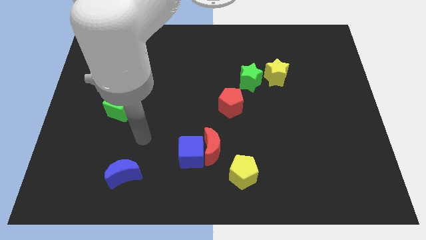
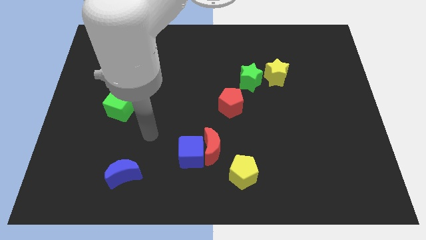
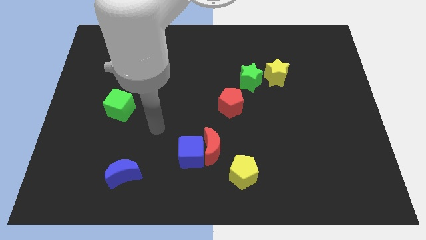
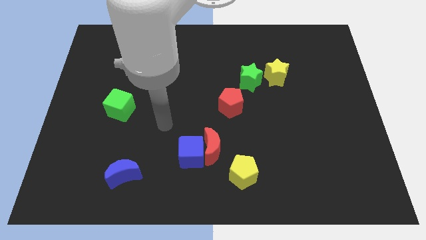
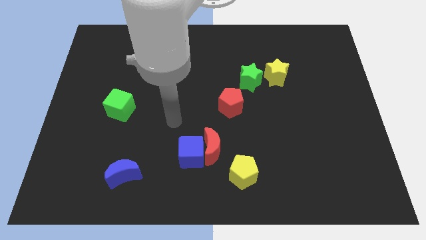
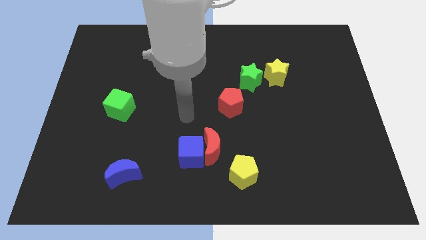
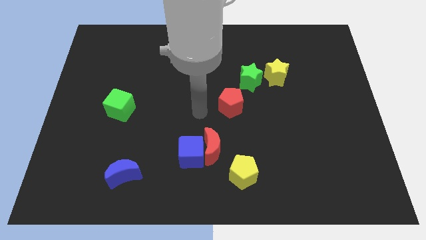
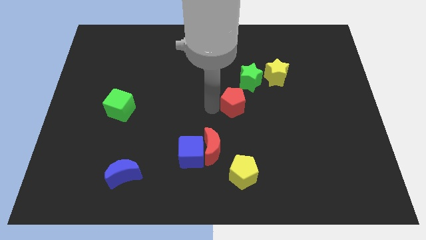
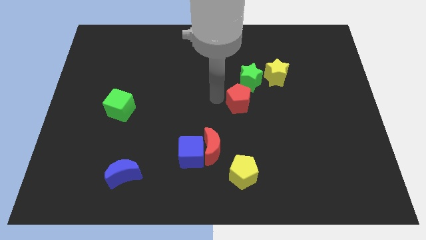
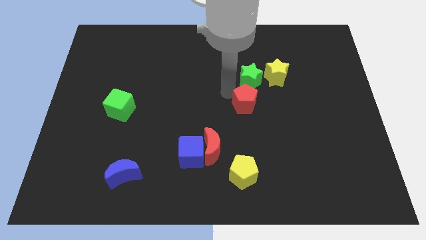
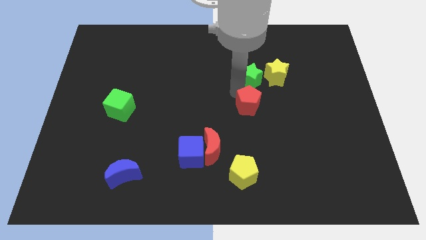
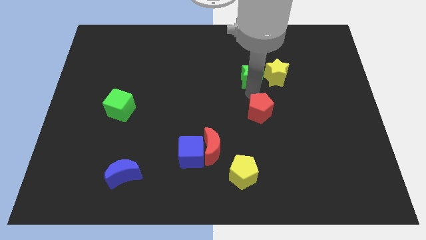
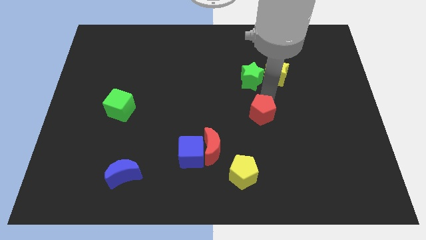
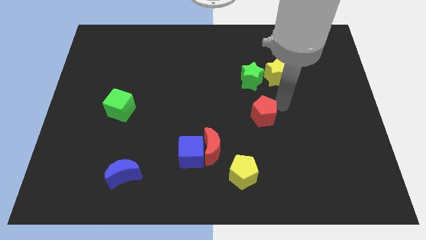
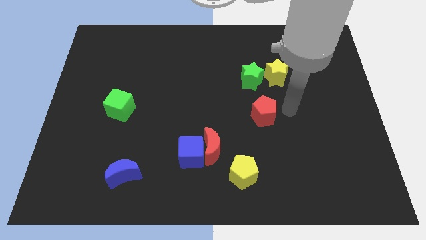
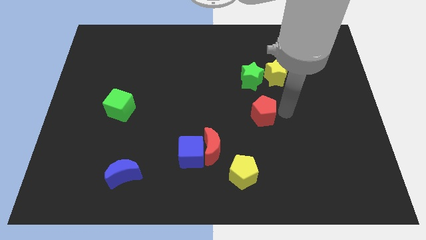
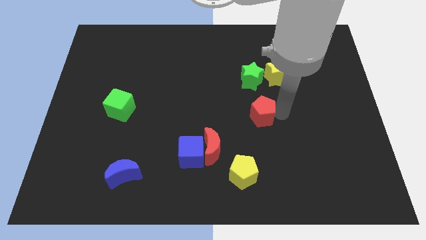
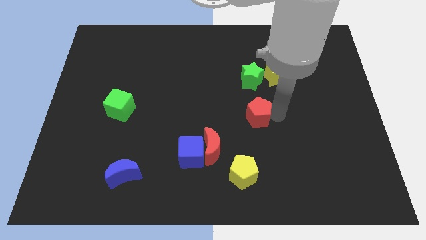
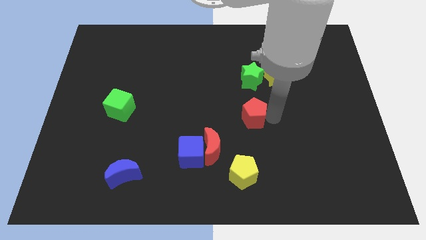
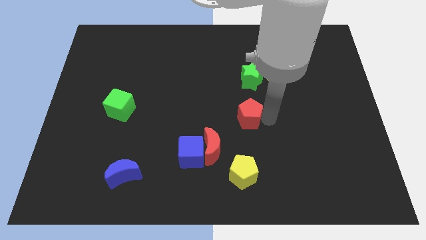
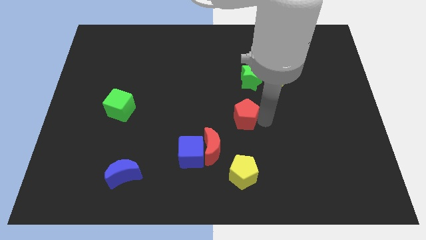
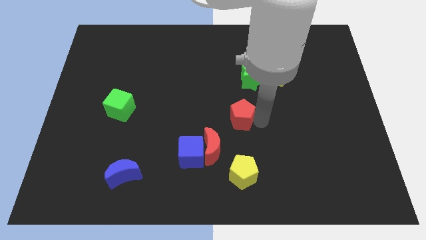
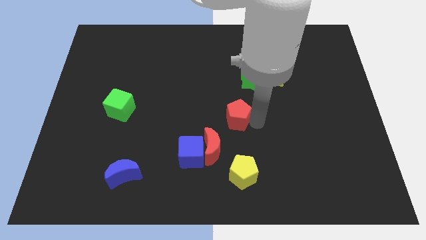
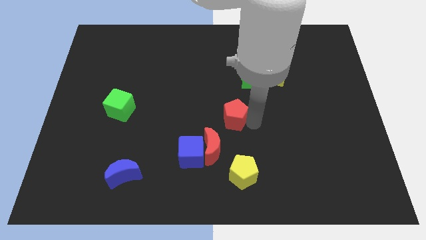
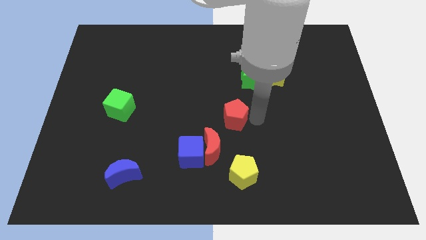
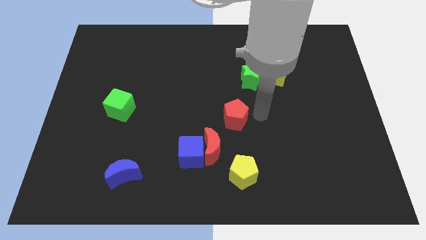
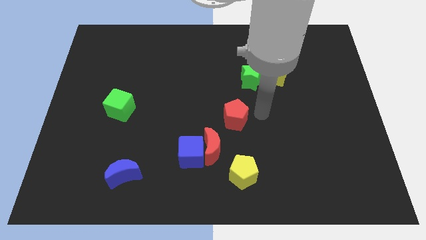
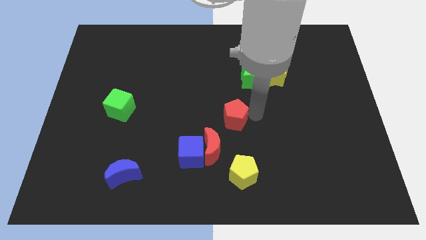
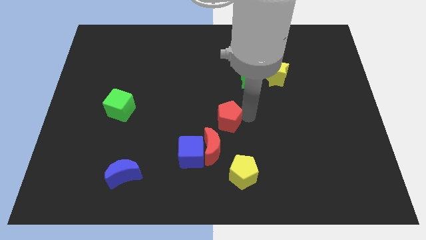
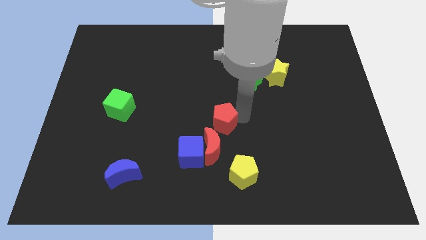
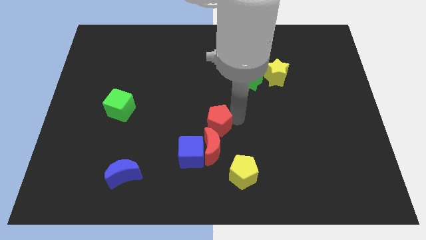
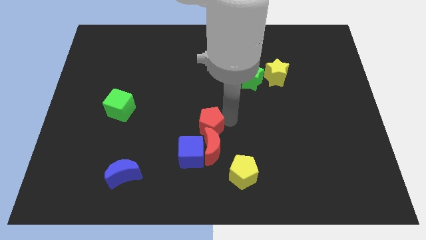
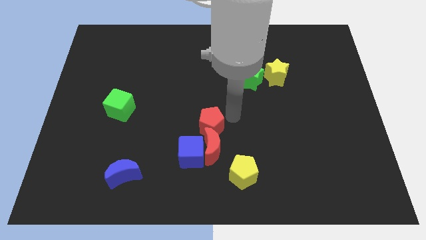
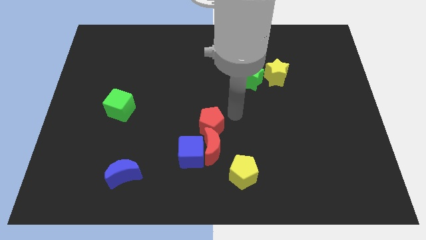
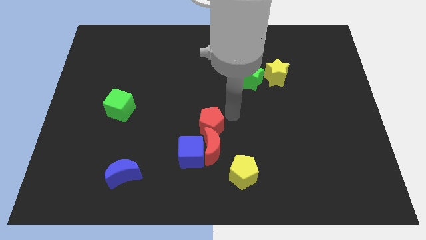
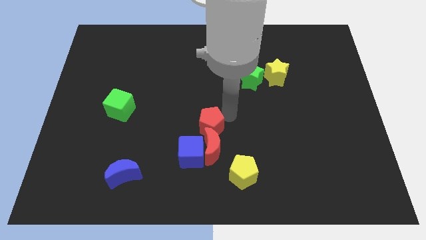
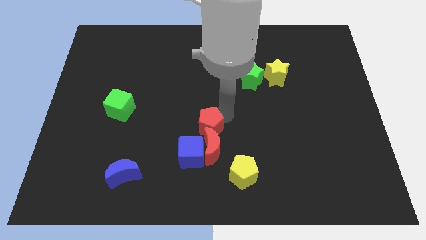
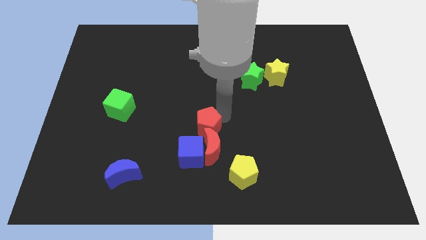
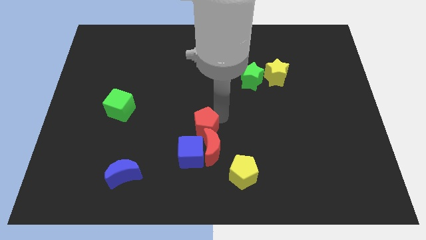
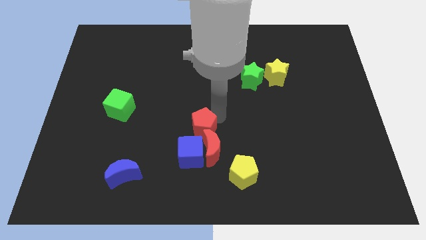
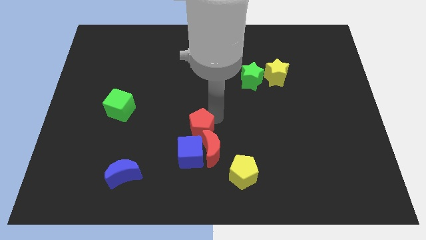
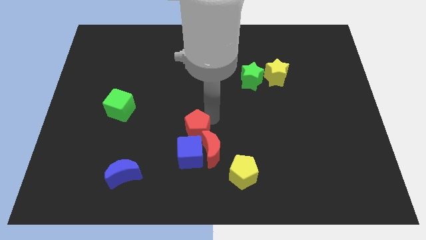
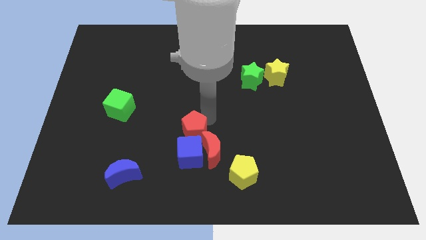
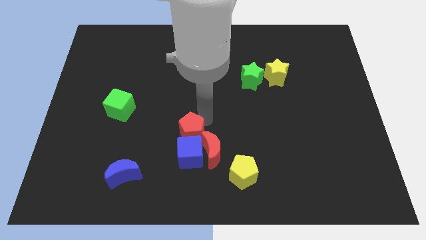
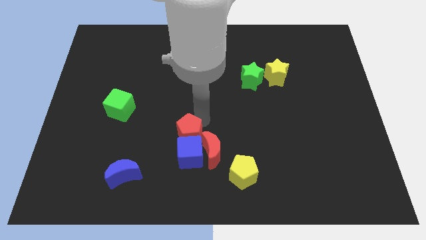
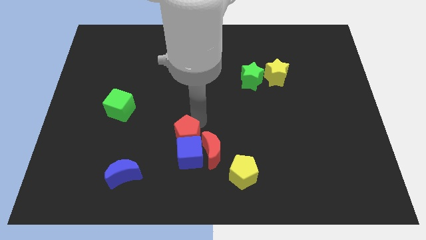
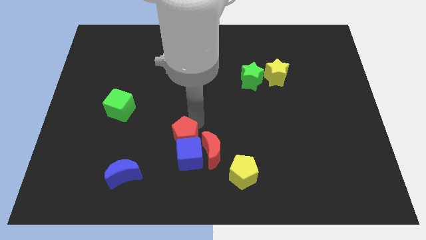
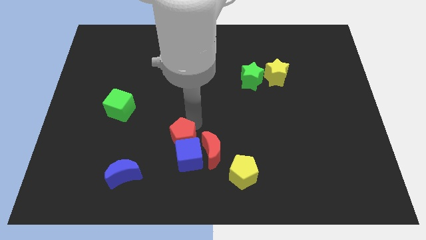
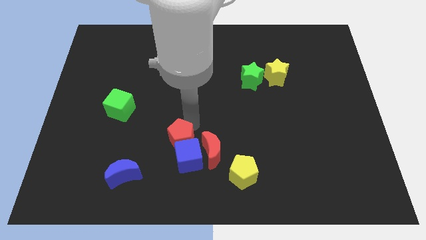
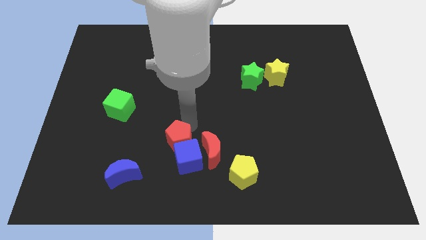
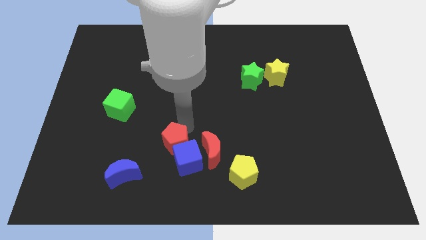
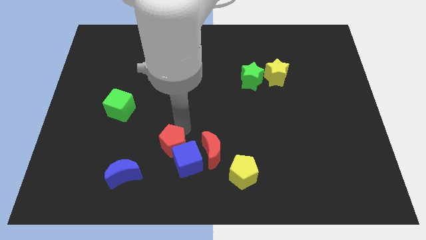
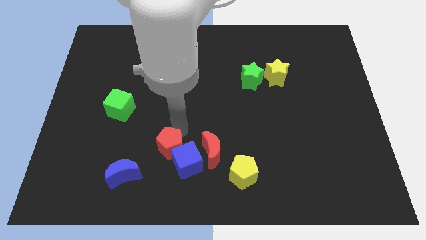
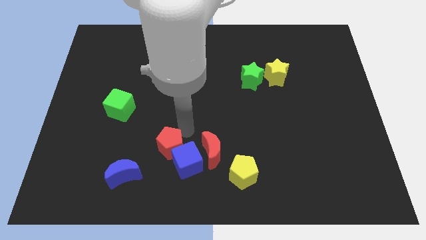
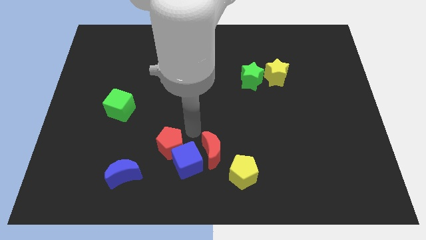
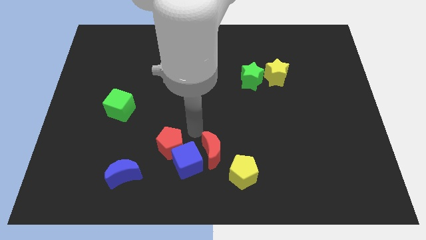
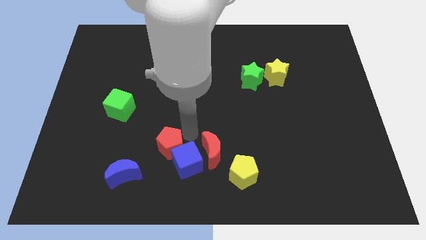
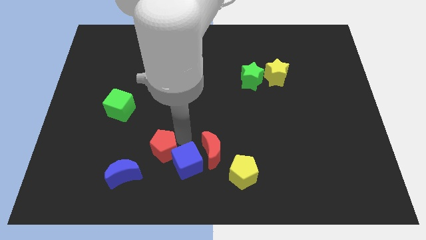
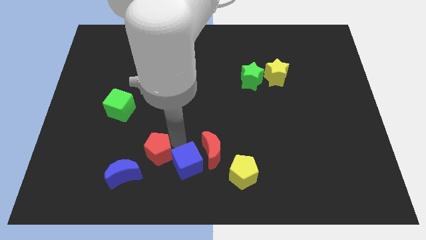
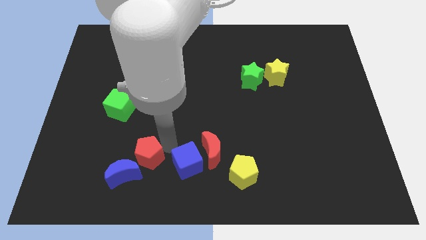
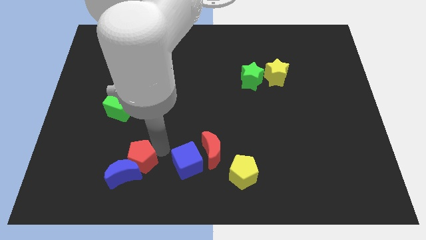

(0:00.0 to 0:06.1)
put the red pentagon towards the blue moon

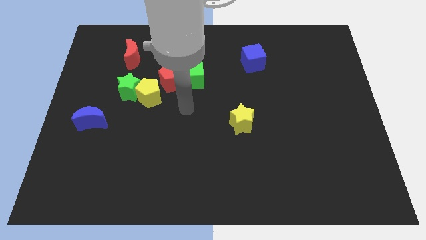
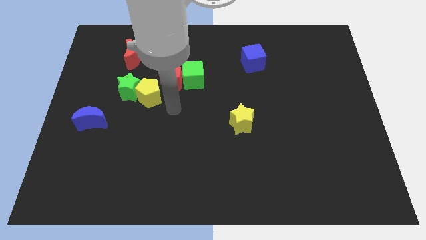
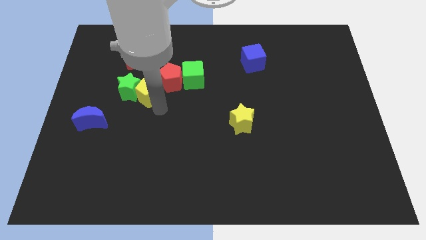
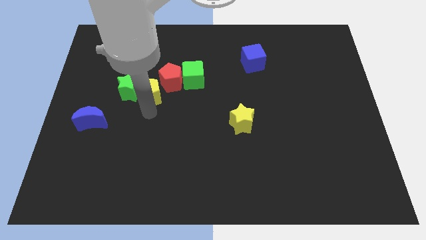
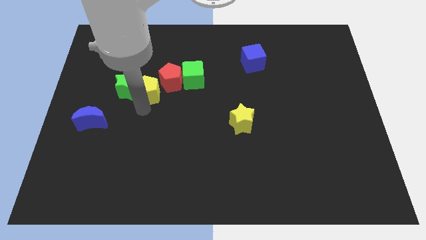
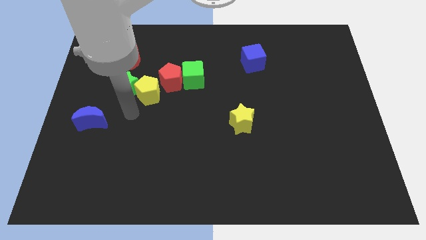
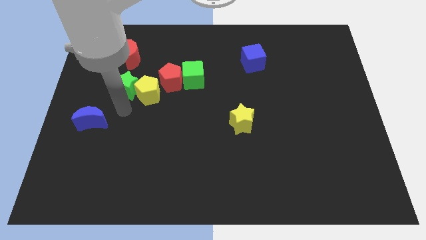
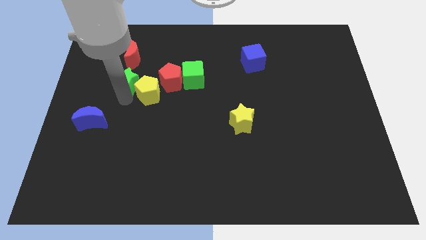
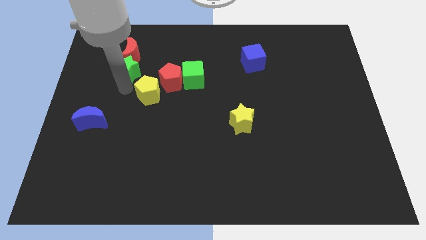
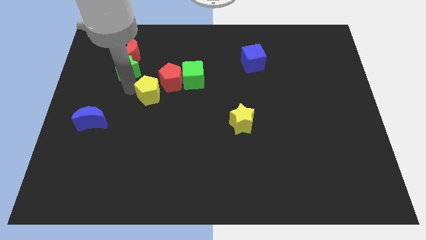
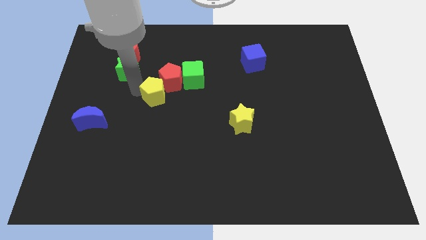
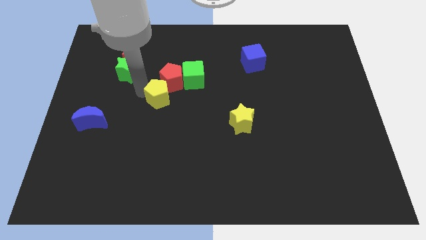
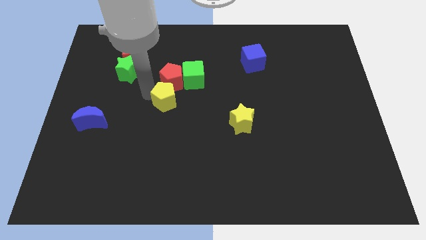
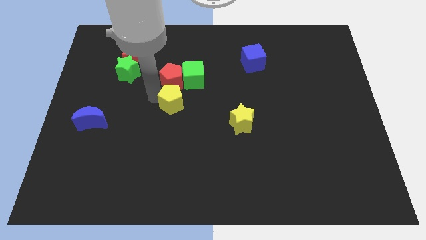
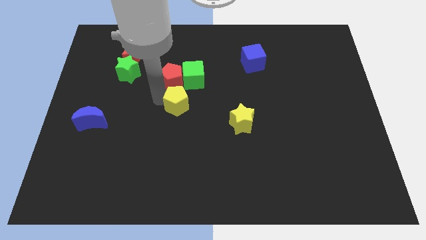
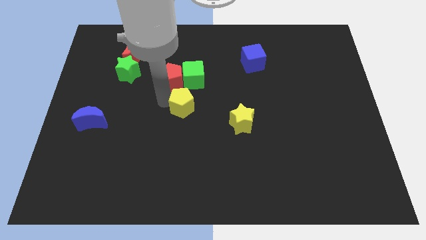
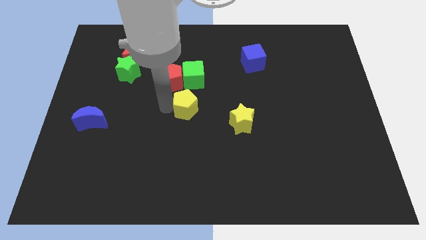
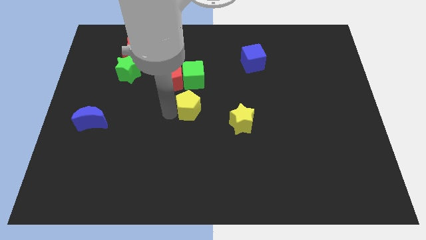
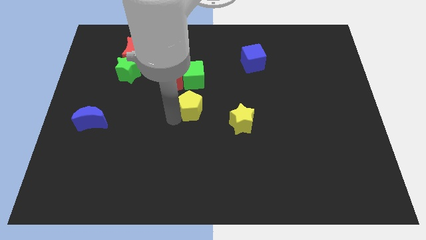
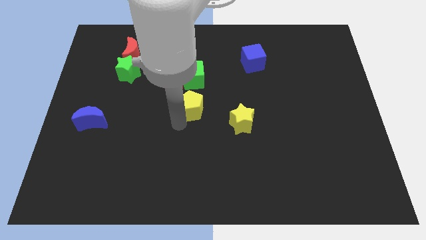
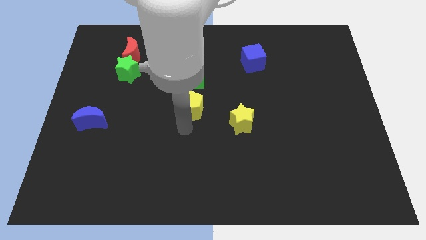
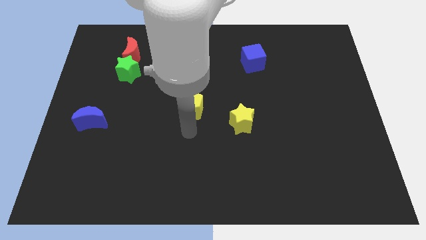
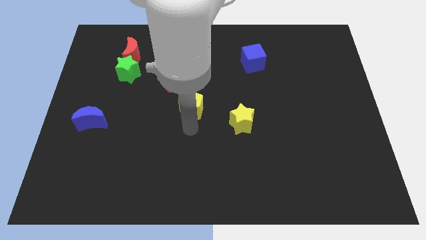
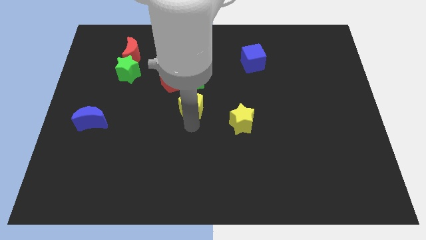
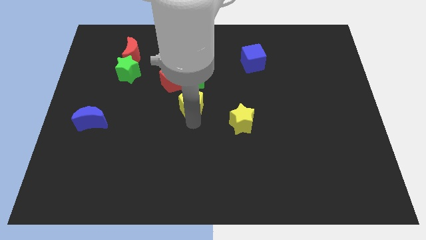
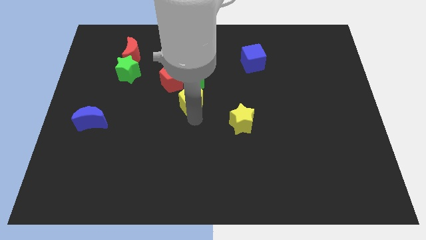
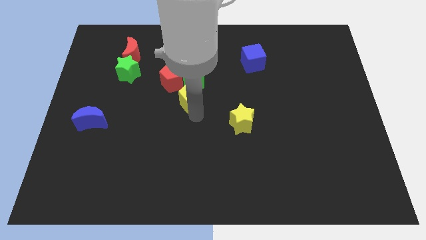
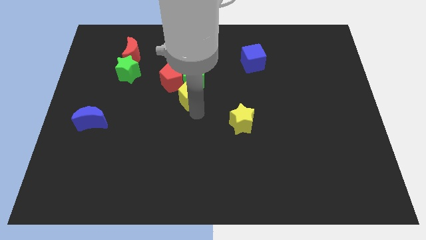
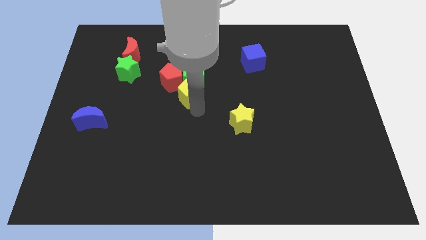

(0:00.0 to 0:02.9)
push the yellow pentagon to the green cube
